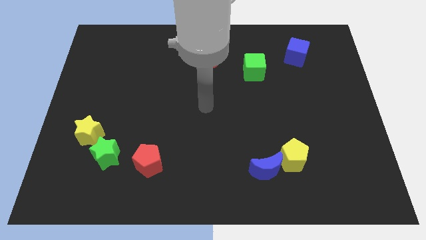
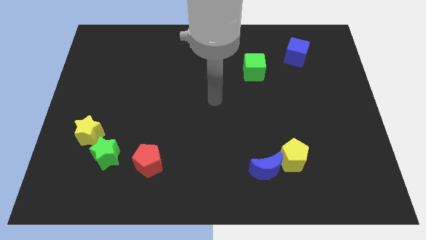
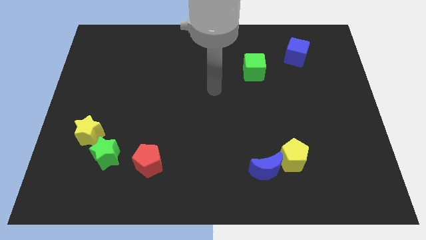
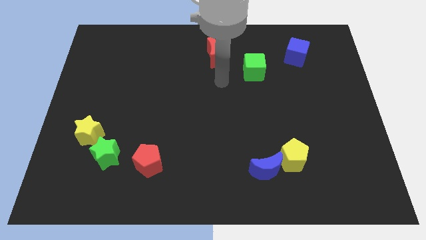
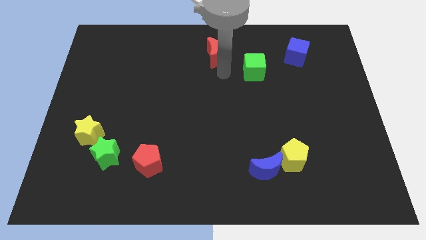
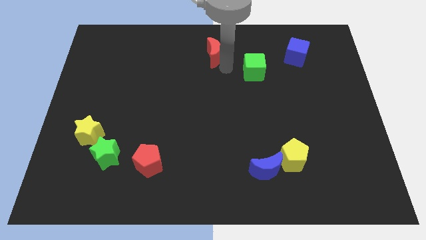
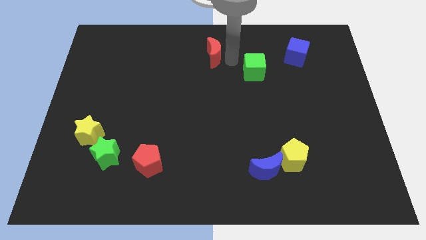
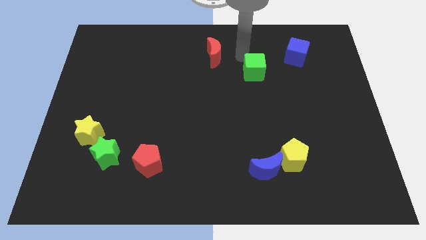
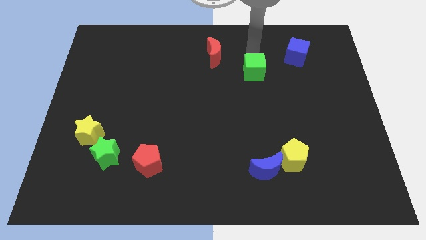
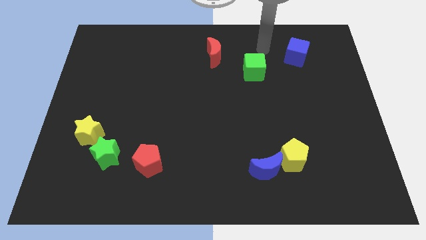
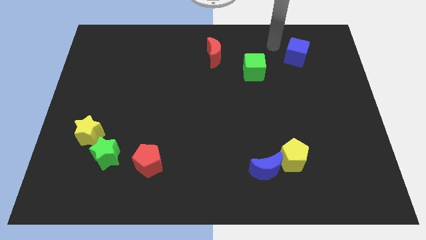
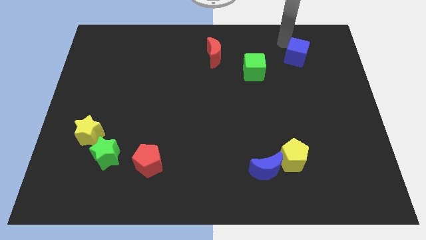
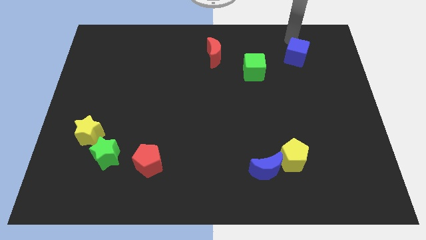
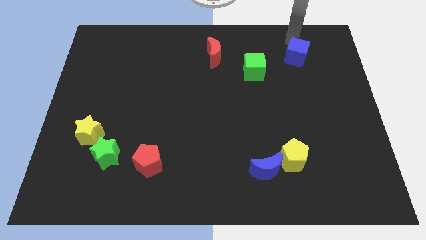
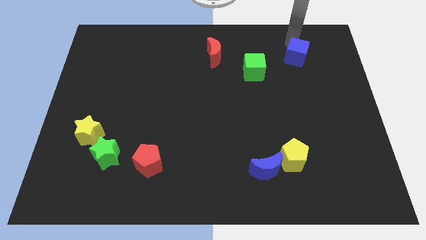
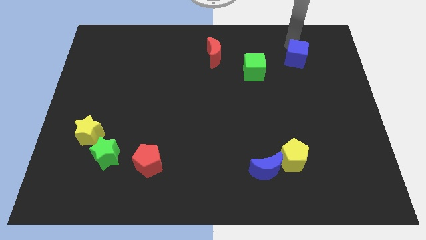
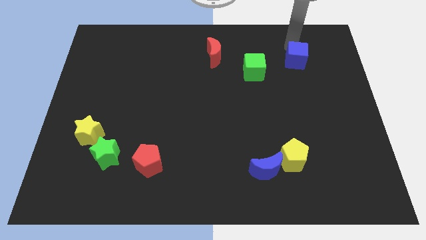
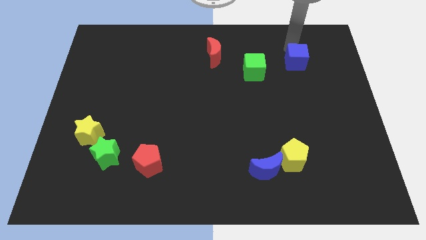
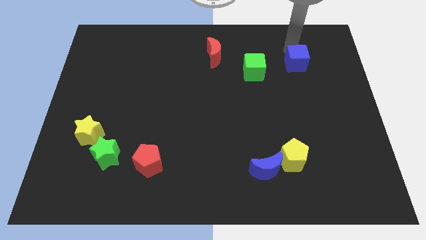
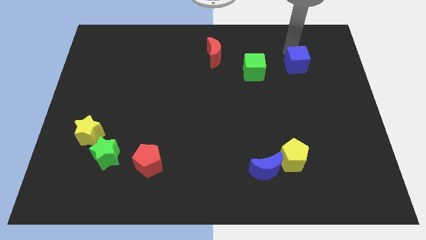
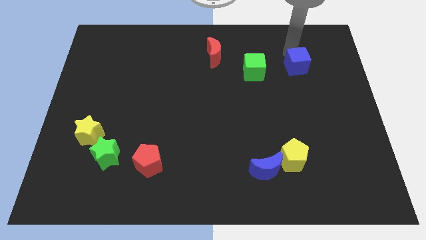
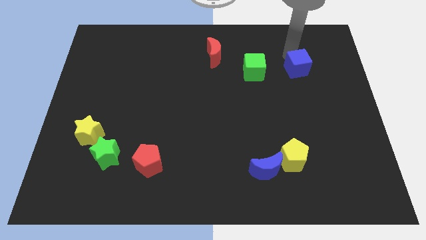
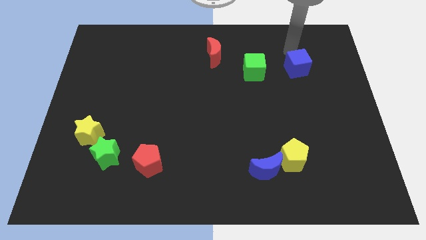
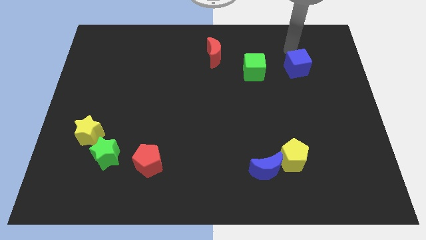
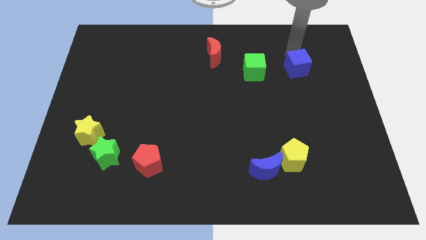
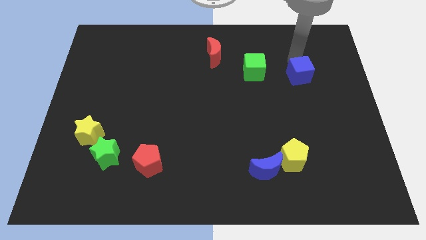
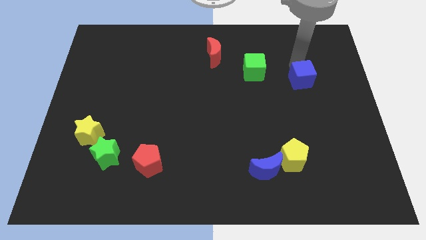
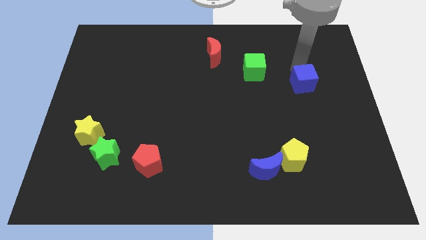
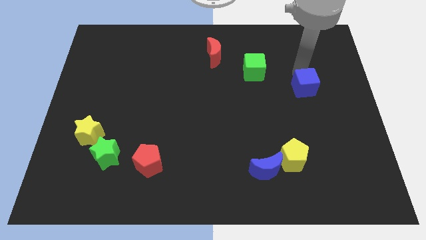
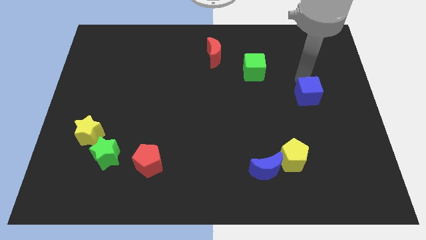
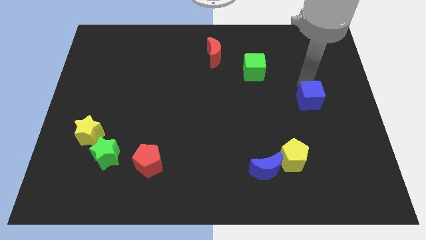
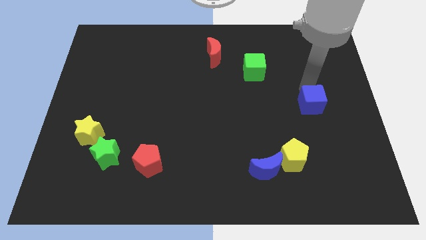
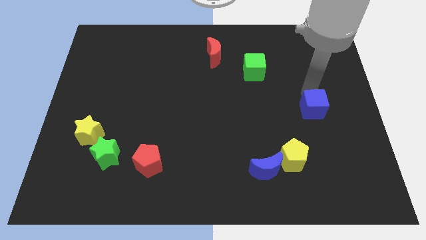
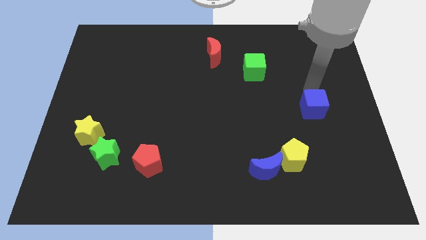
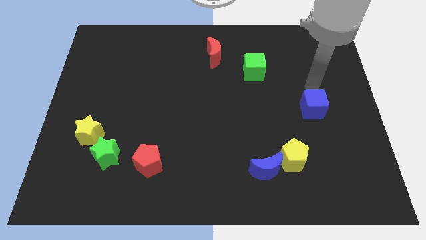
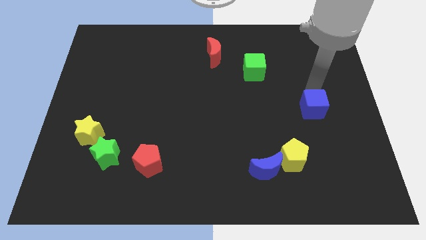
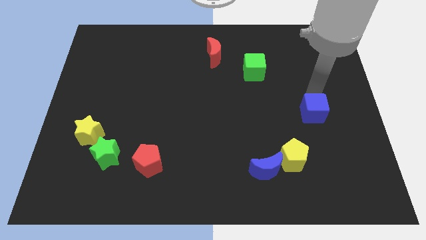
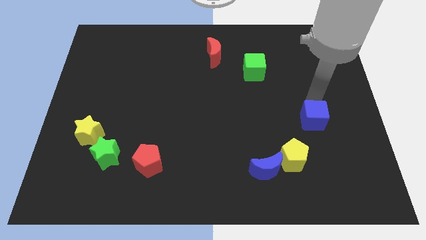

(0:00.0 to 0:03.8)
push the blue cube down

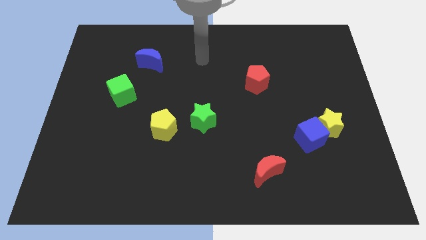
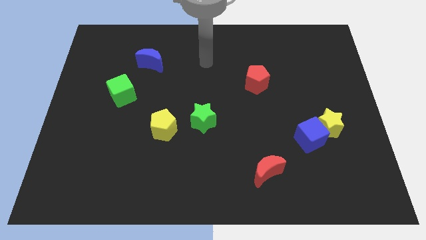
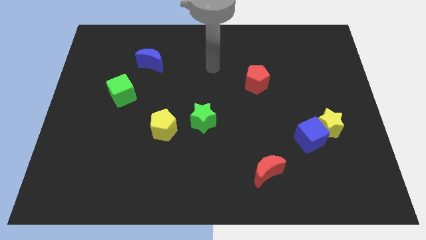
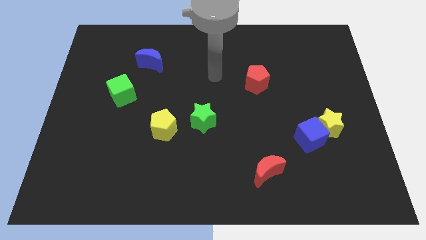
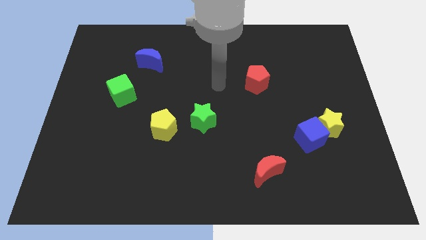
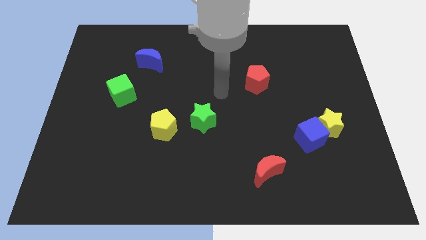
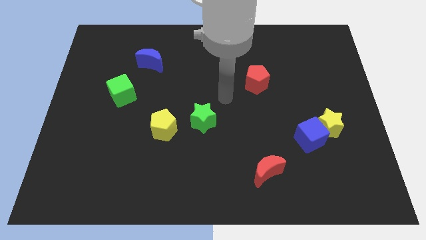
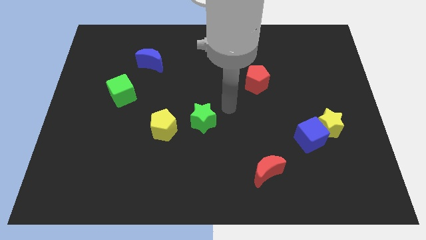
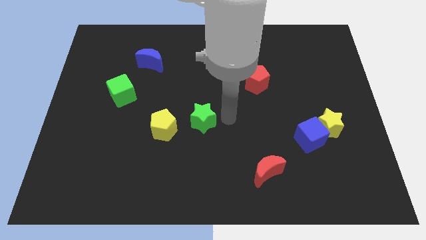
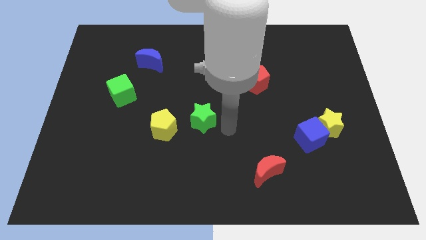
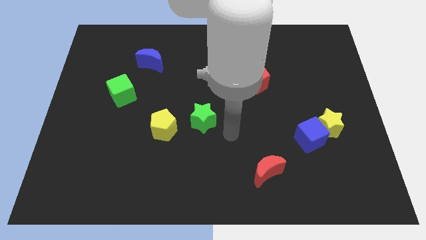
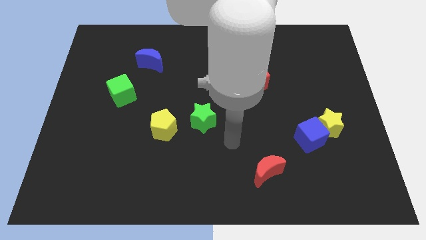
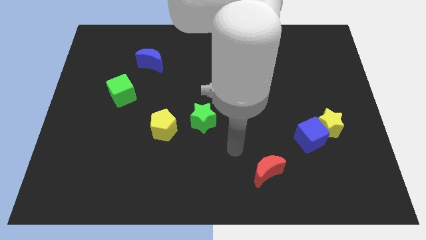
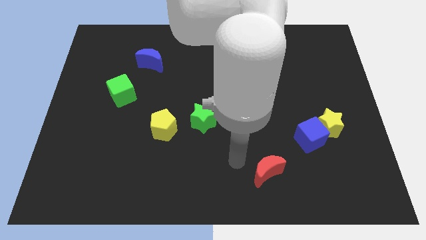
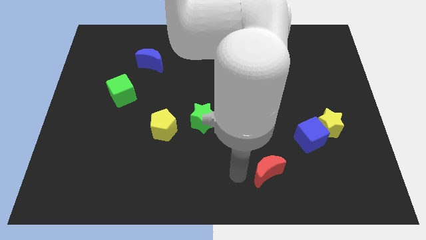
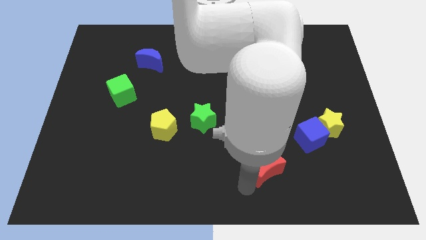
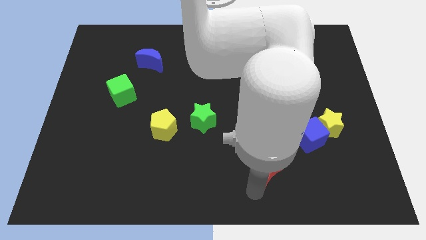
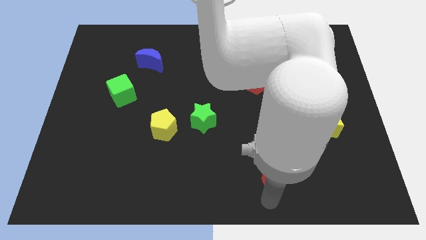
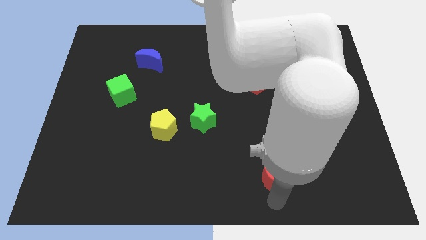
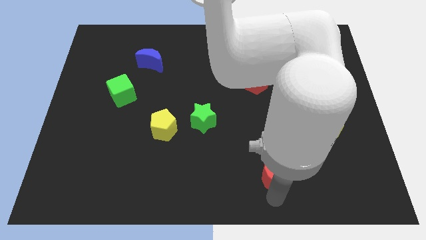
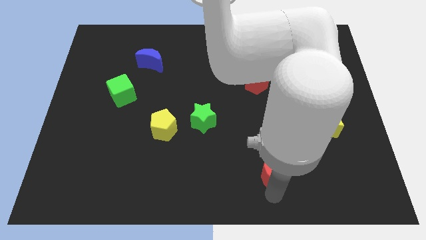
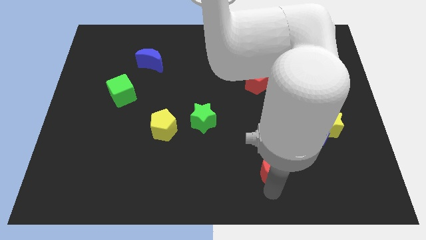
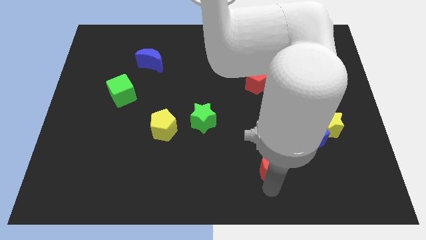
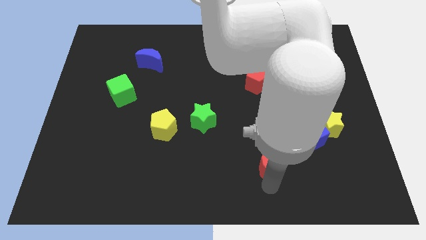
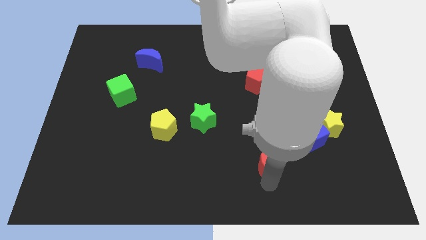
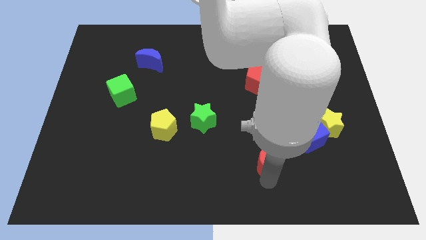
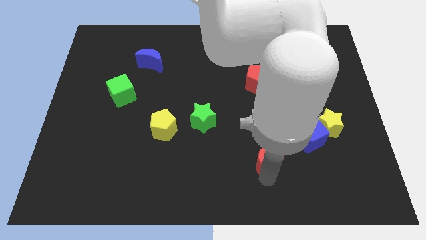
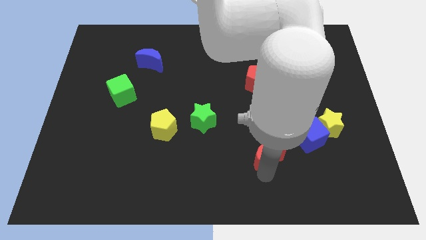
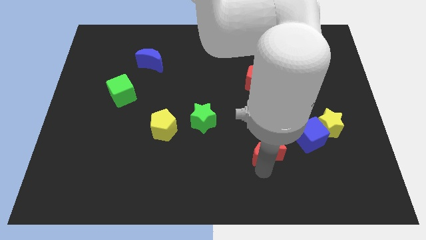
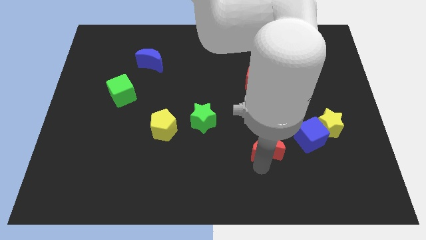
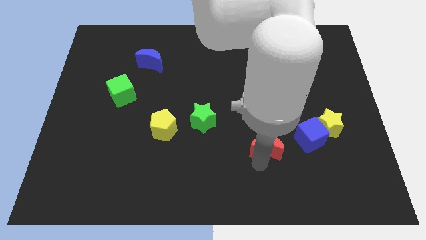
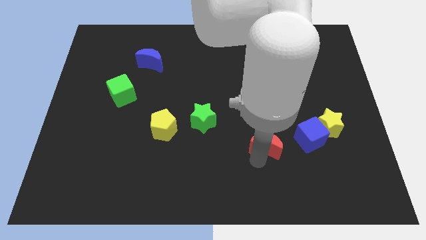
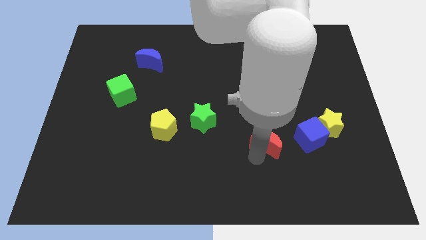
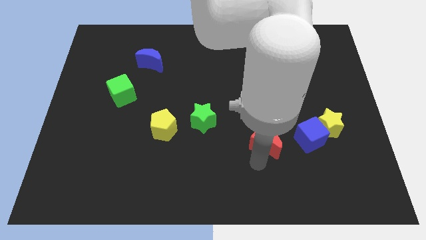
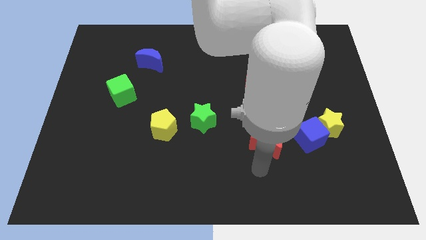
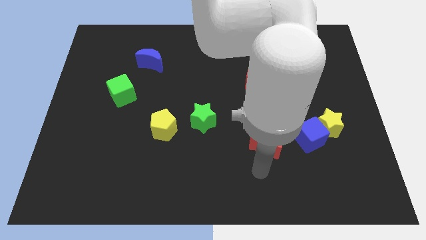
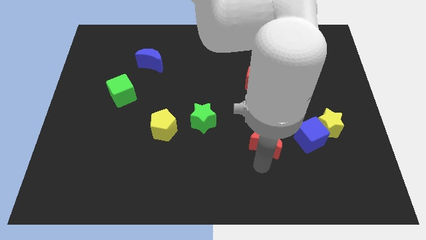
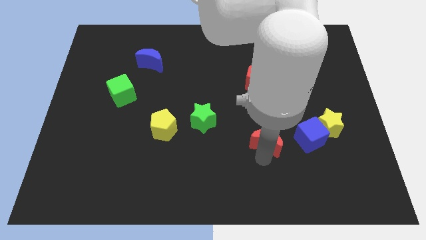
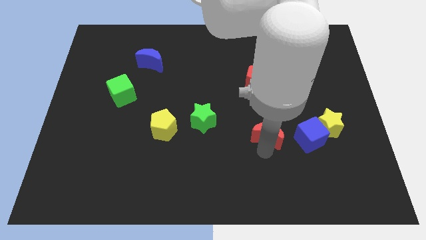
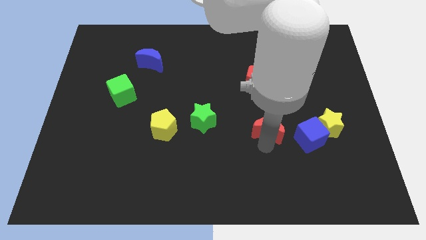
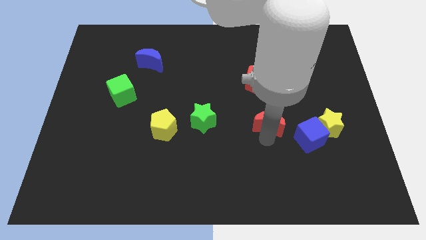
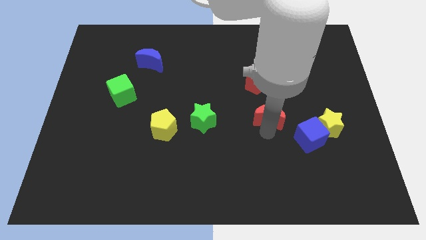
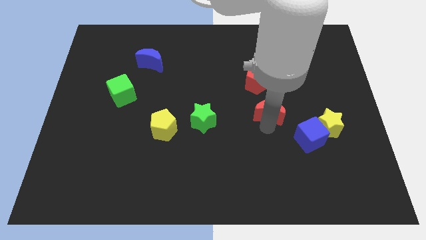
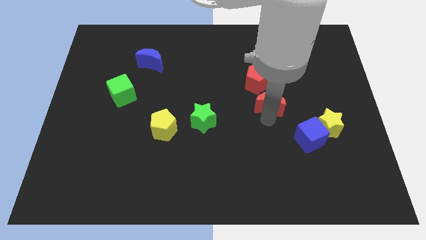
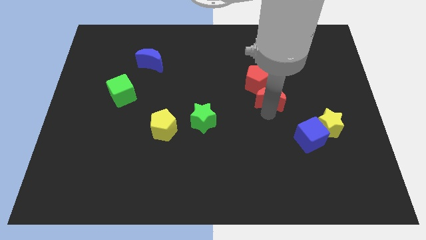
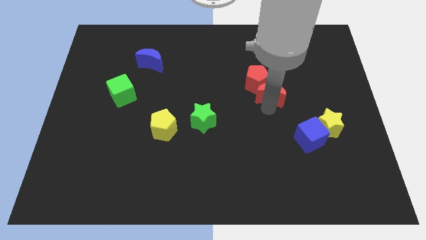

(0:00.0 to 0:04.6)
push the red moon upwards
